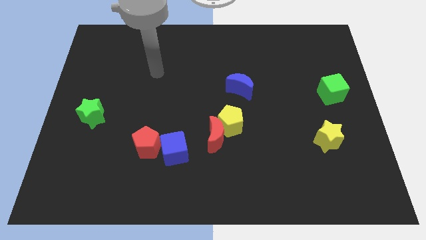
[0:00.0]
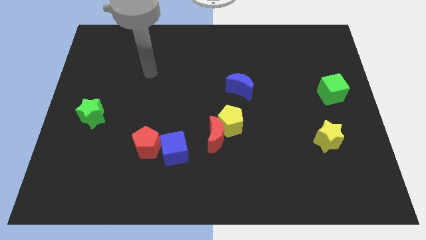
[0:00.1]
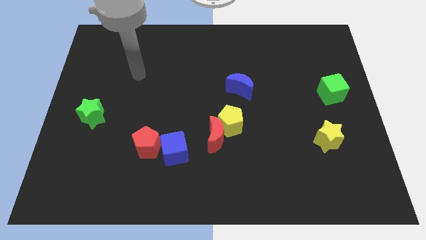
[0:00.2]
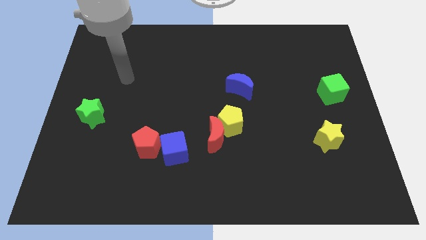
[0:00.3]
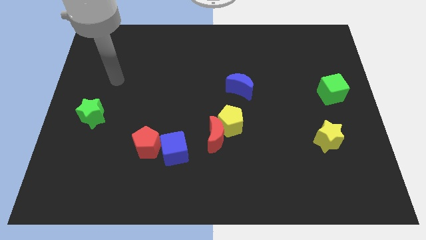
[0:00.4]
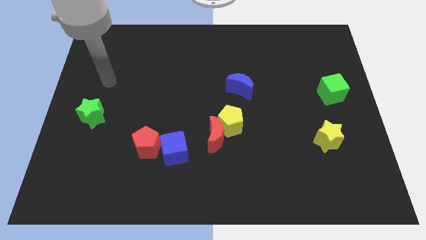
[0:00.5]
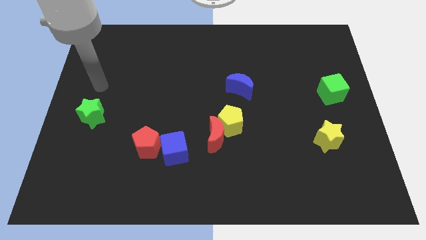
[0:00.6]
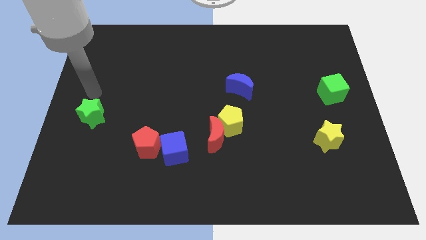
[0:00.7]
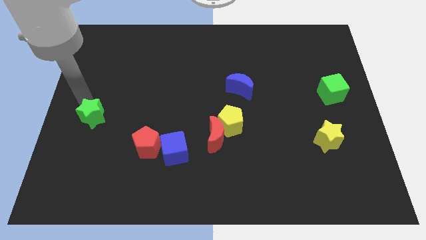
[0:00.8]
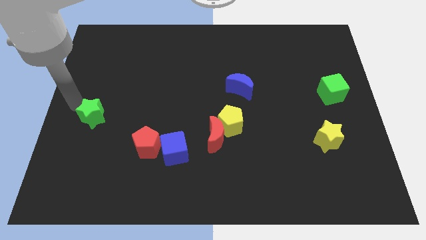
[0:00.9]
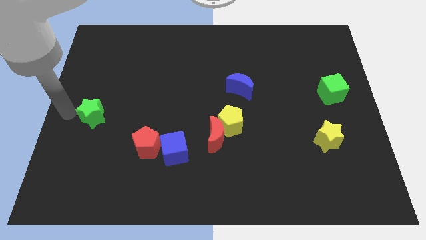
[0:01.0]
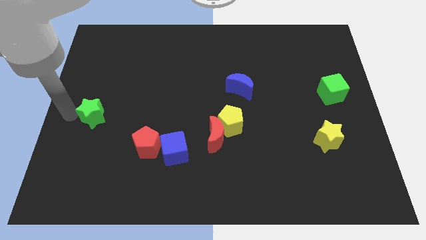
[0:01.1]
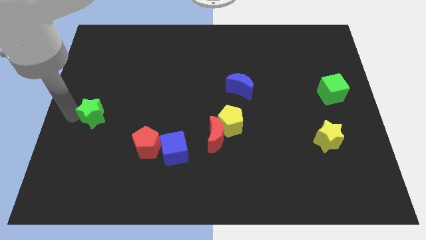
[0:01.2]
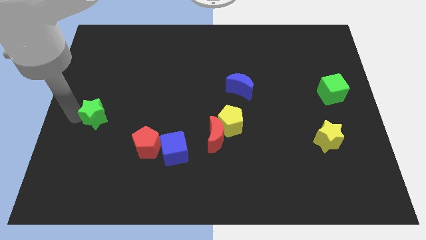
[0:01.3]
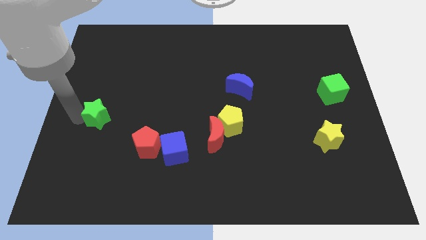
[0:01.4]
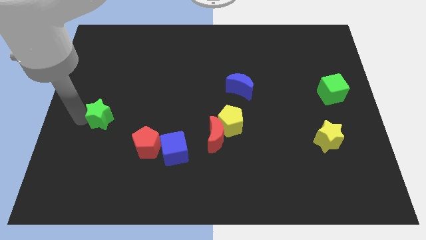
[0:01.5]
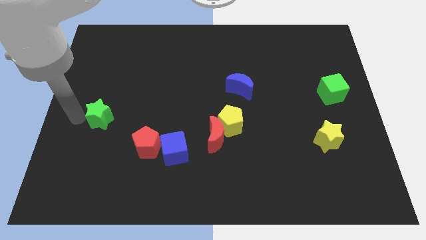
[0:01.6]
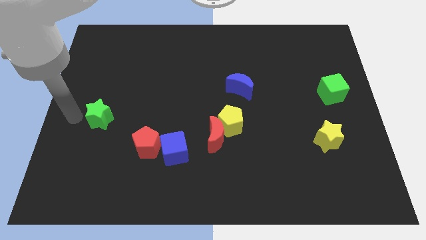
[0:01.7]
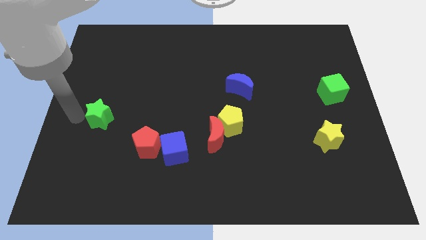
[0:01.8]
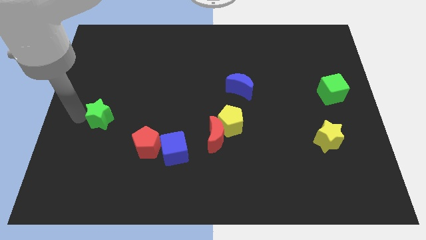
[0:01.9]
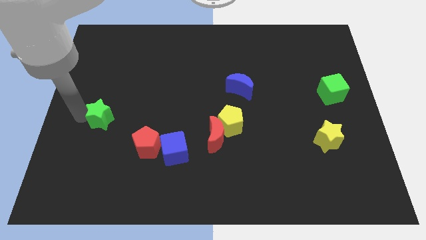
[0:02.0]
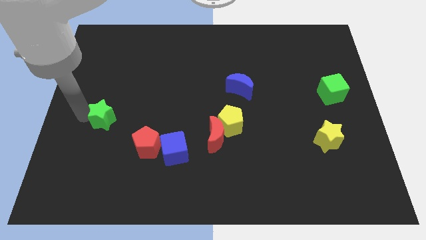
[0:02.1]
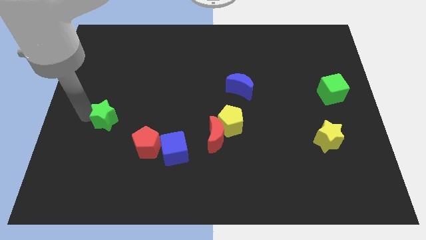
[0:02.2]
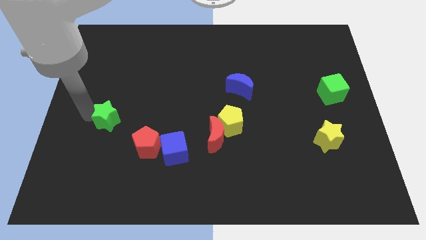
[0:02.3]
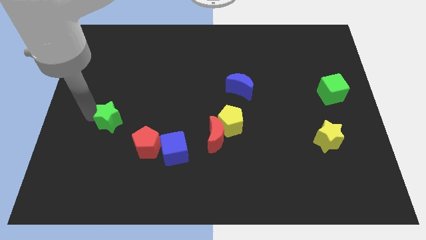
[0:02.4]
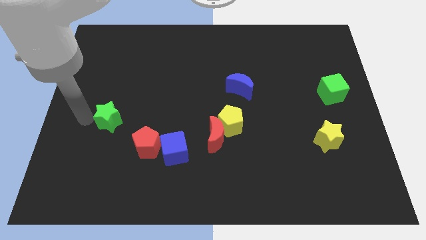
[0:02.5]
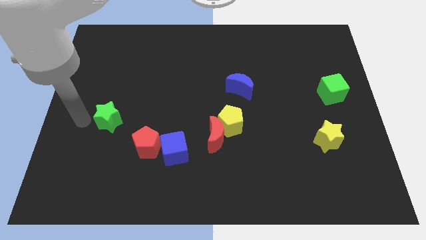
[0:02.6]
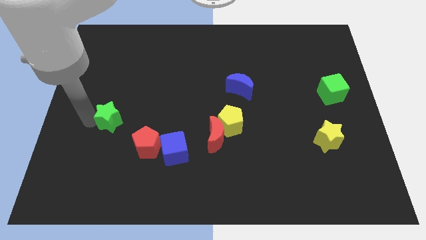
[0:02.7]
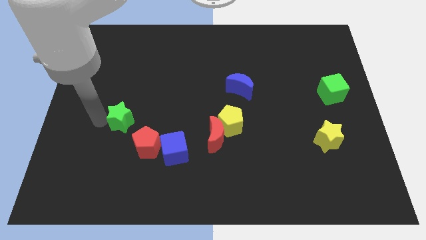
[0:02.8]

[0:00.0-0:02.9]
slide the green star a little bit right

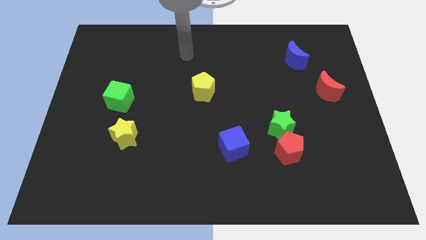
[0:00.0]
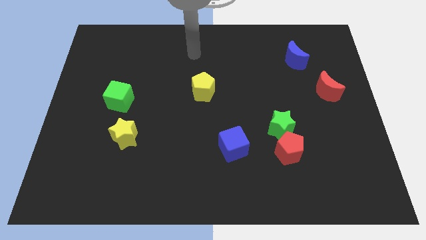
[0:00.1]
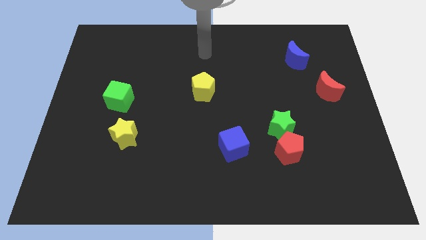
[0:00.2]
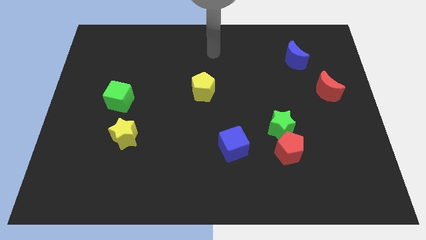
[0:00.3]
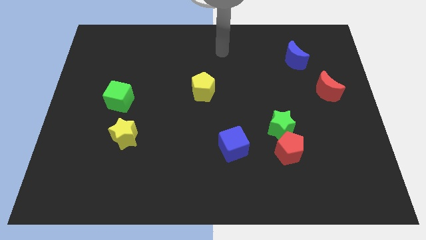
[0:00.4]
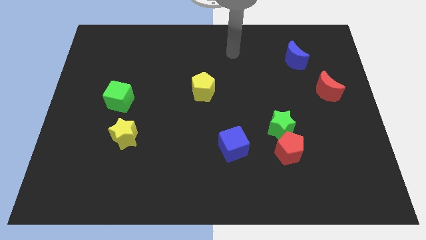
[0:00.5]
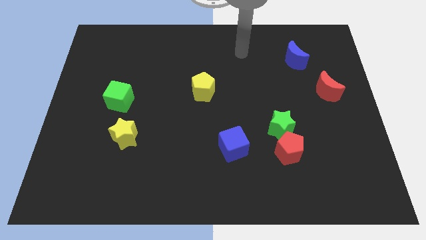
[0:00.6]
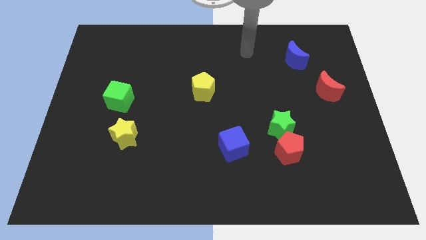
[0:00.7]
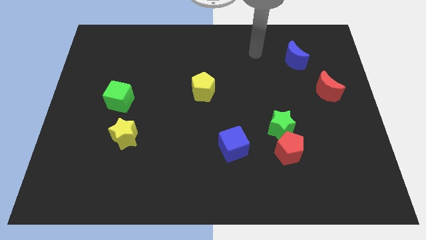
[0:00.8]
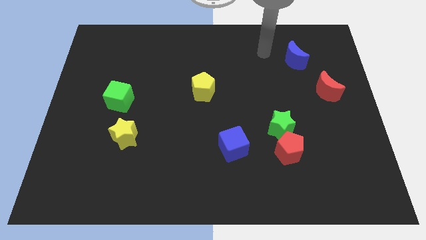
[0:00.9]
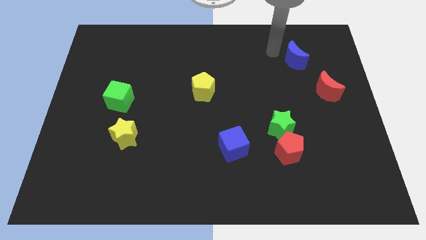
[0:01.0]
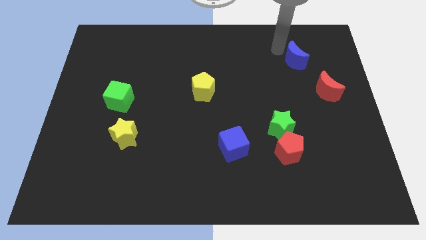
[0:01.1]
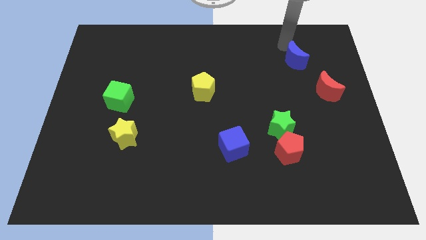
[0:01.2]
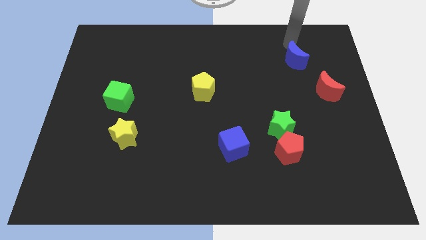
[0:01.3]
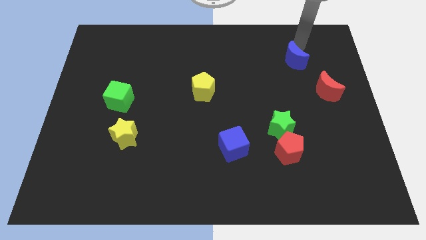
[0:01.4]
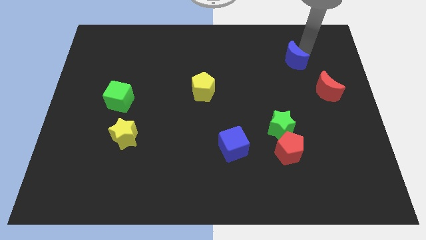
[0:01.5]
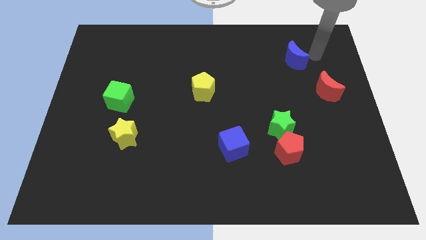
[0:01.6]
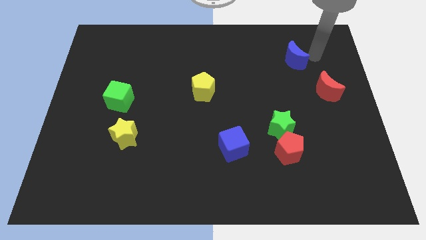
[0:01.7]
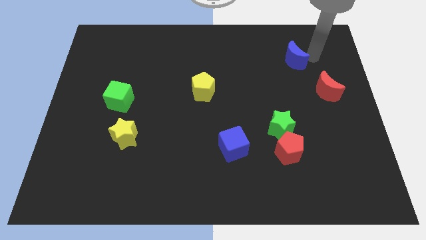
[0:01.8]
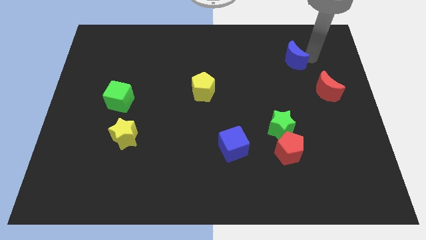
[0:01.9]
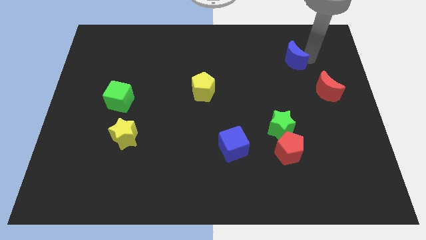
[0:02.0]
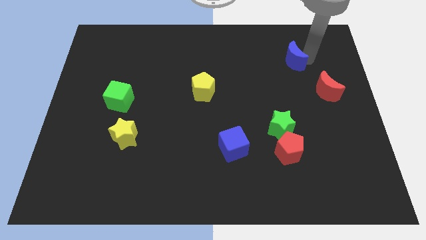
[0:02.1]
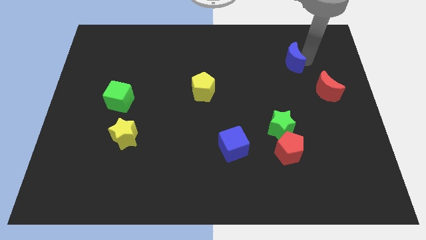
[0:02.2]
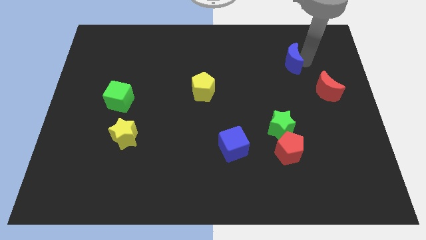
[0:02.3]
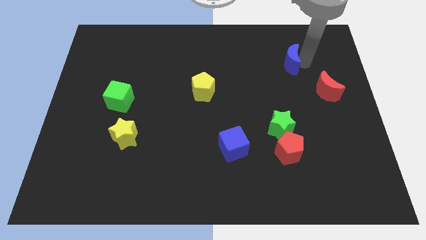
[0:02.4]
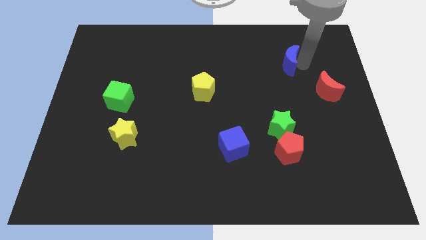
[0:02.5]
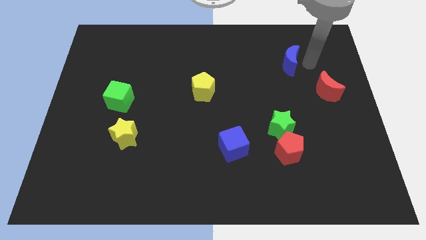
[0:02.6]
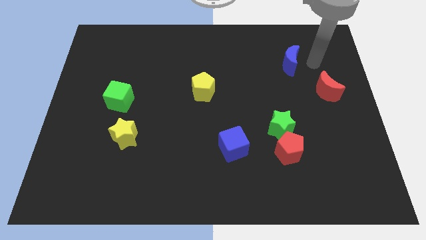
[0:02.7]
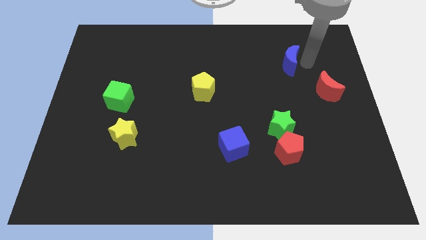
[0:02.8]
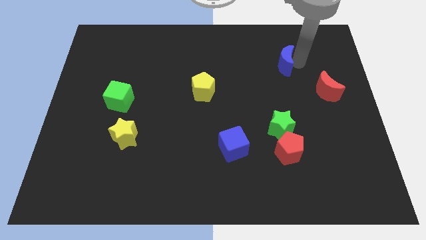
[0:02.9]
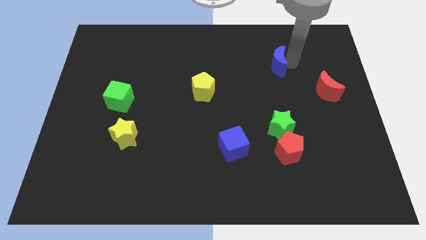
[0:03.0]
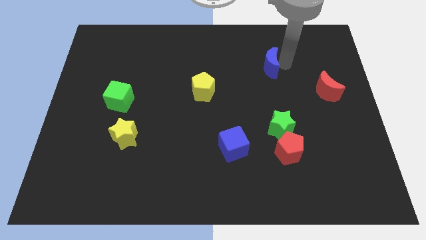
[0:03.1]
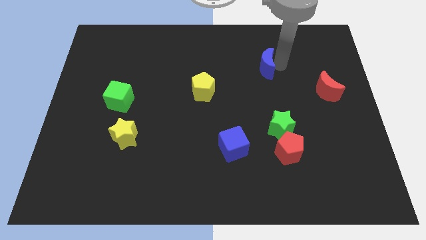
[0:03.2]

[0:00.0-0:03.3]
push the blue moon to the left a bit

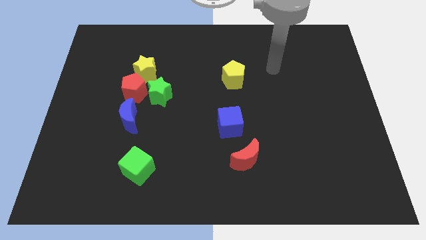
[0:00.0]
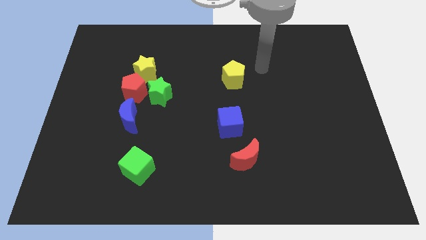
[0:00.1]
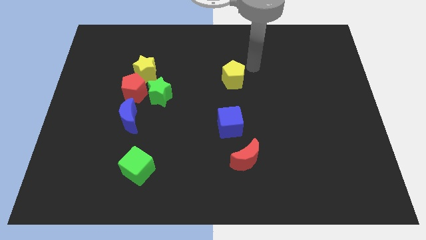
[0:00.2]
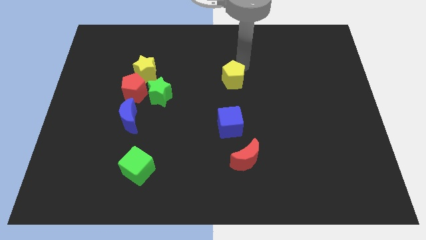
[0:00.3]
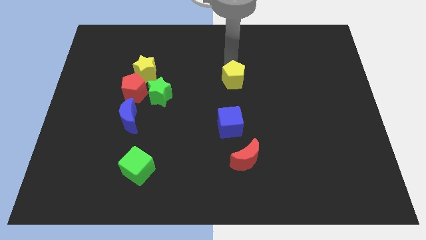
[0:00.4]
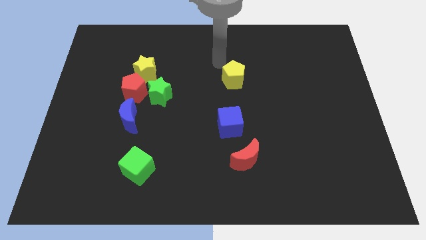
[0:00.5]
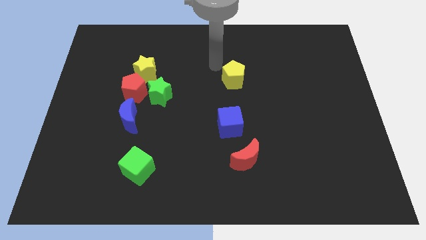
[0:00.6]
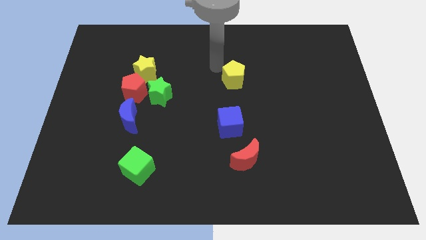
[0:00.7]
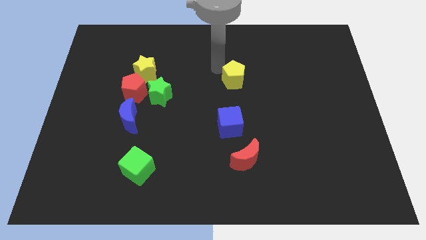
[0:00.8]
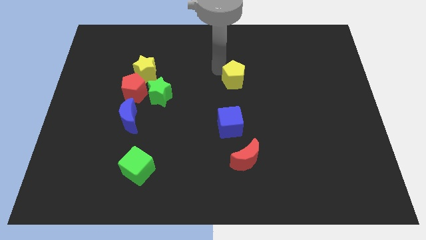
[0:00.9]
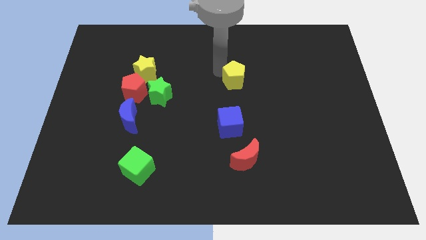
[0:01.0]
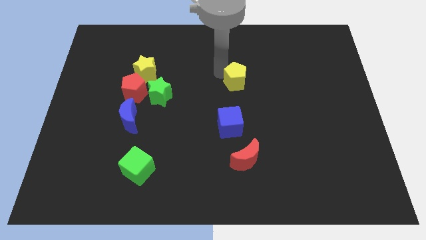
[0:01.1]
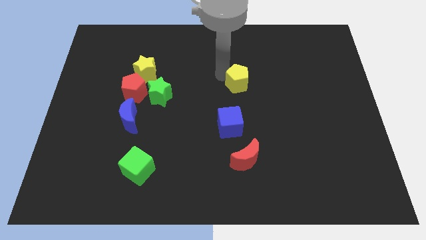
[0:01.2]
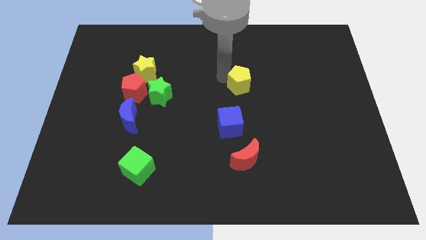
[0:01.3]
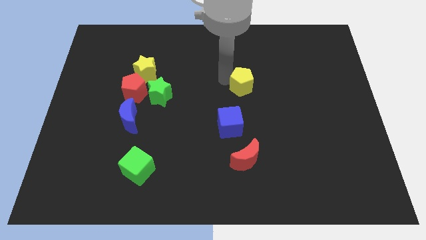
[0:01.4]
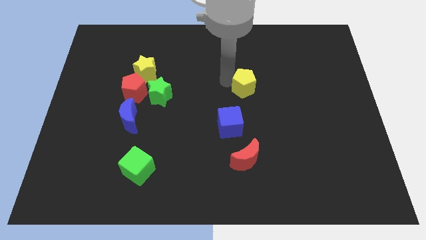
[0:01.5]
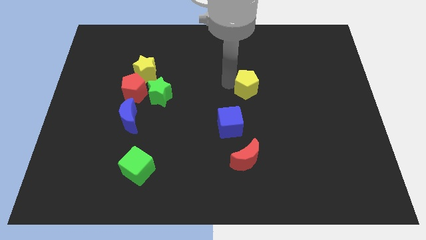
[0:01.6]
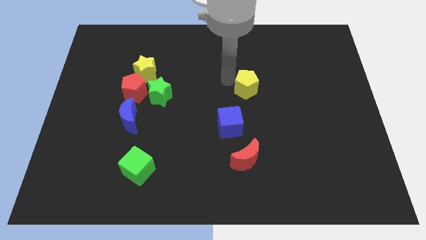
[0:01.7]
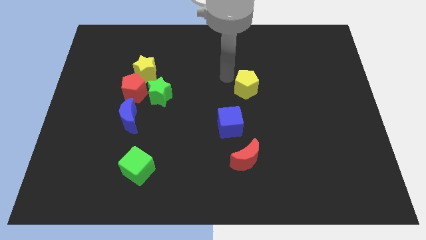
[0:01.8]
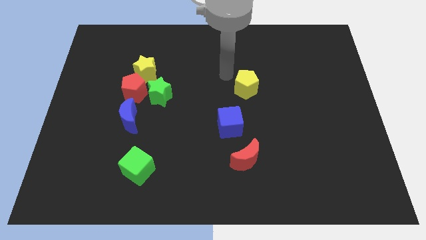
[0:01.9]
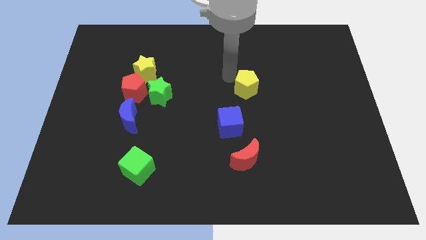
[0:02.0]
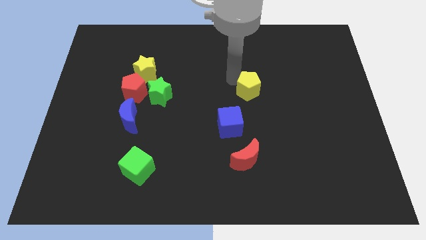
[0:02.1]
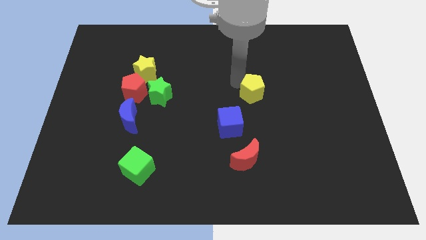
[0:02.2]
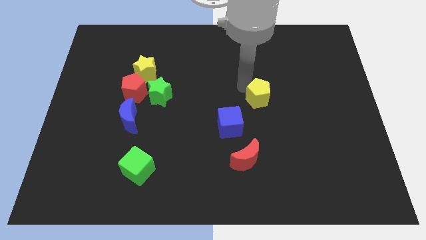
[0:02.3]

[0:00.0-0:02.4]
slide the yellow pentagon slightly diagonally down and right
